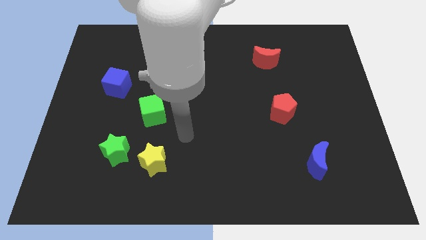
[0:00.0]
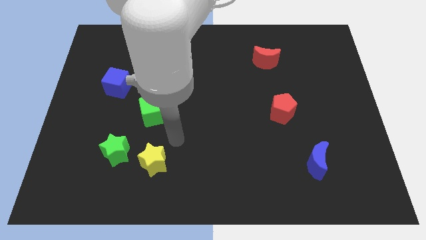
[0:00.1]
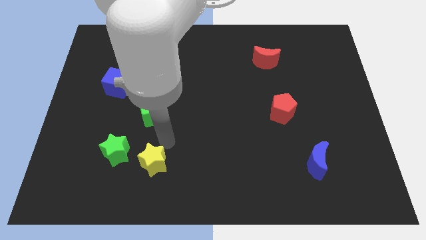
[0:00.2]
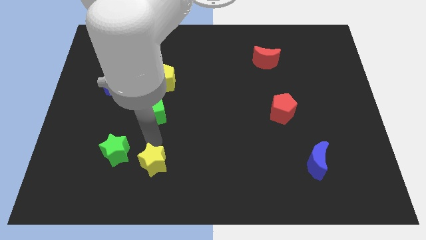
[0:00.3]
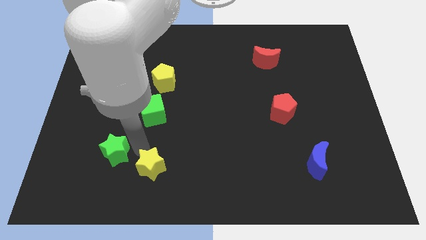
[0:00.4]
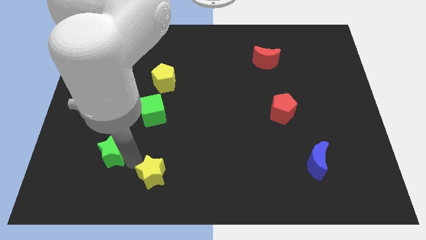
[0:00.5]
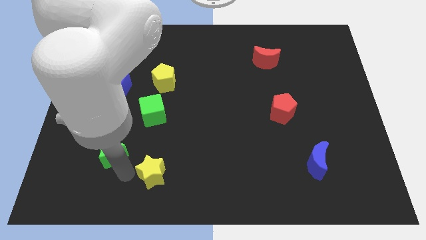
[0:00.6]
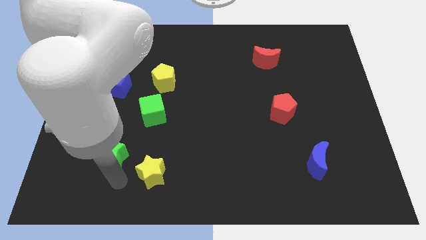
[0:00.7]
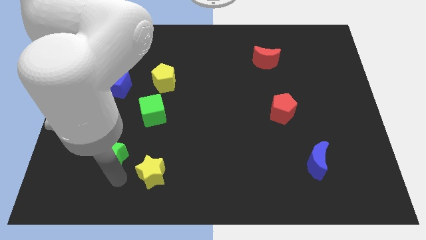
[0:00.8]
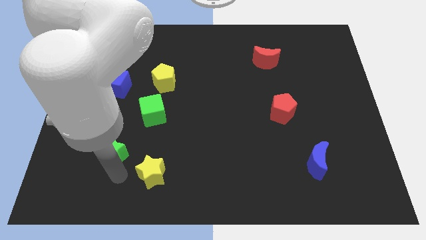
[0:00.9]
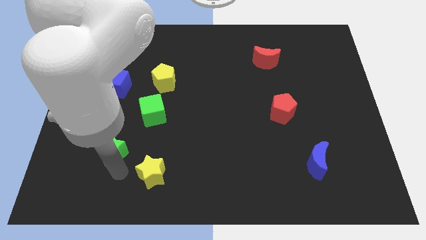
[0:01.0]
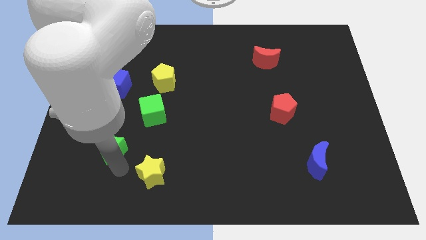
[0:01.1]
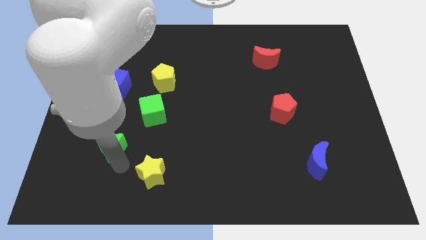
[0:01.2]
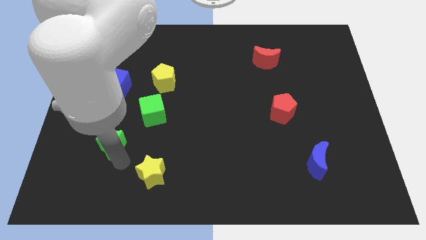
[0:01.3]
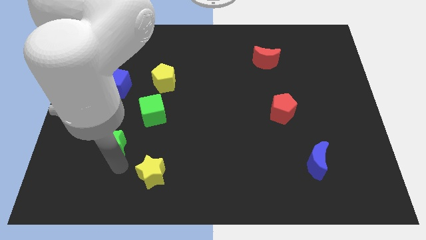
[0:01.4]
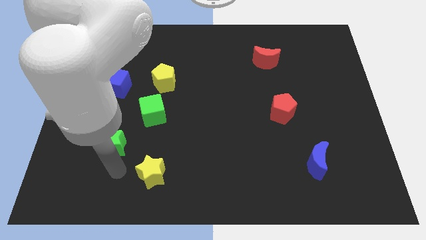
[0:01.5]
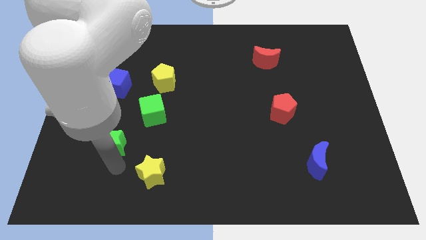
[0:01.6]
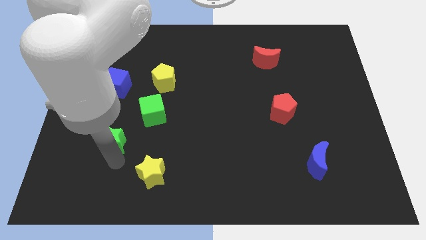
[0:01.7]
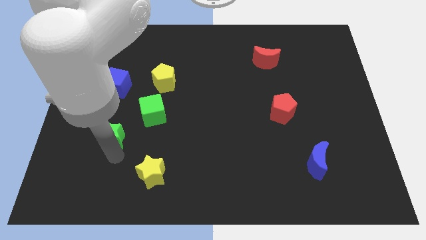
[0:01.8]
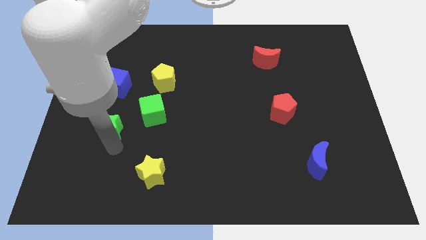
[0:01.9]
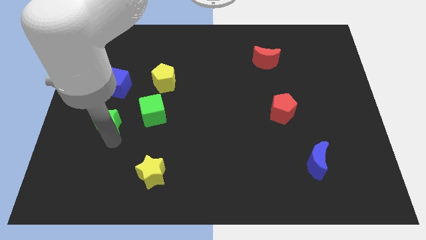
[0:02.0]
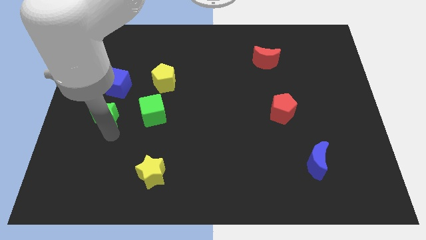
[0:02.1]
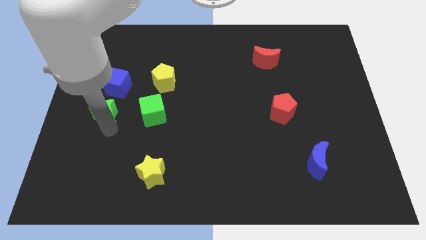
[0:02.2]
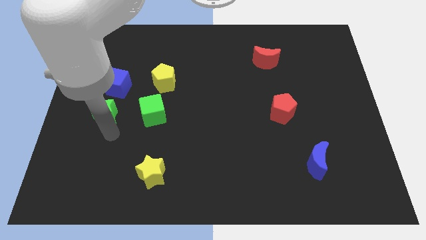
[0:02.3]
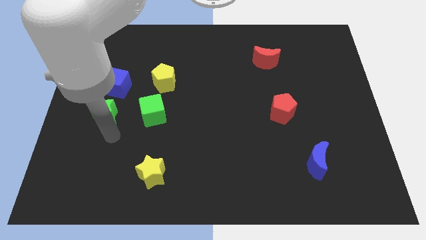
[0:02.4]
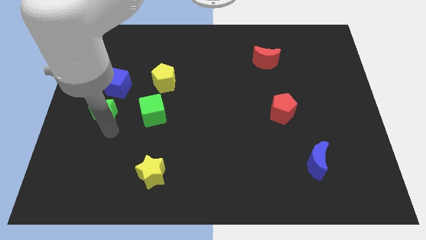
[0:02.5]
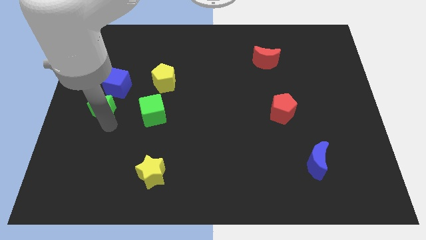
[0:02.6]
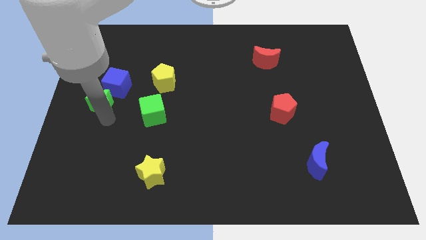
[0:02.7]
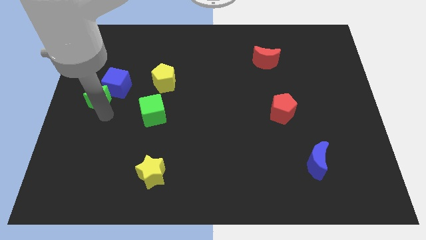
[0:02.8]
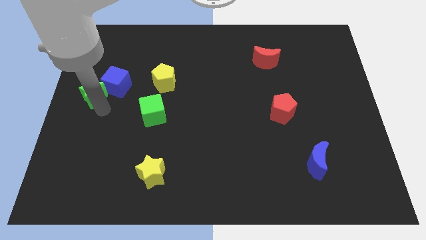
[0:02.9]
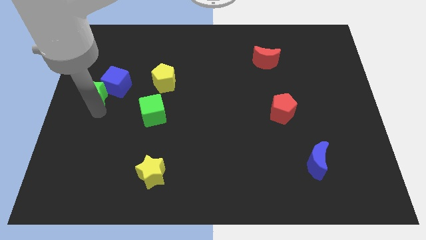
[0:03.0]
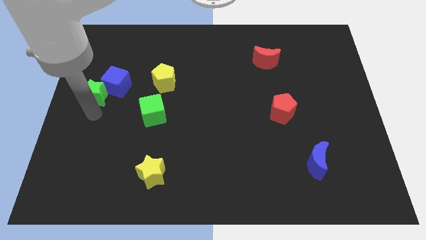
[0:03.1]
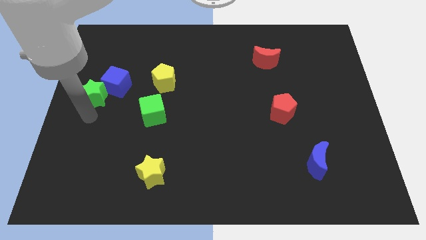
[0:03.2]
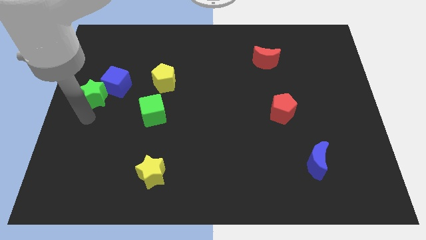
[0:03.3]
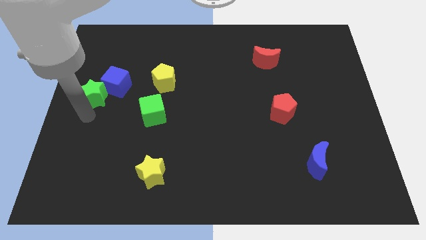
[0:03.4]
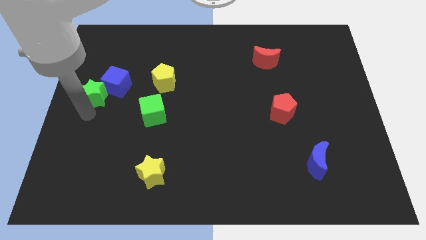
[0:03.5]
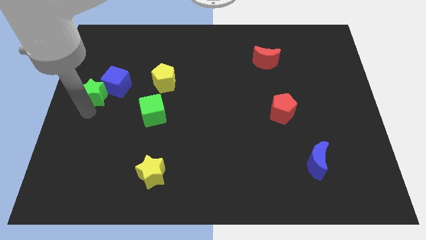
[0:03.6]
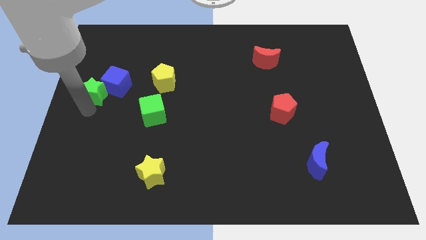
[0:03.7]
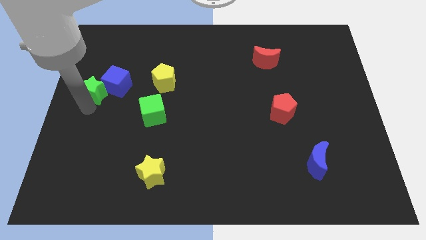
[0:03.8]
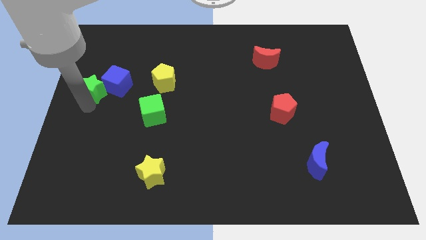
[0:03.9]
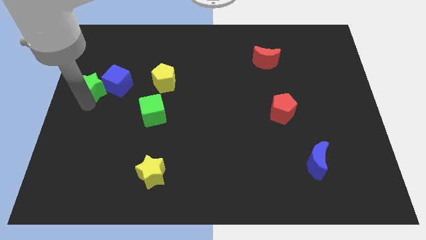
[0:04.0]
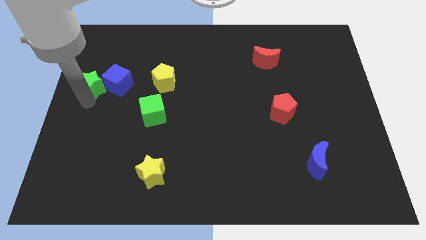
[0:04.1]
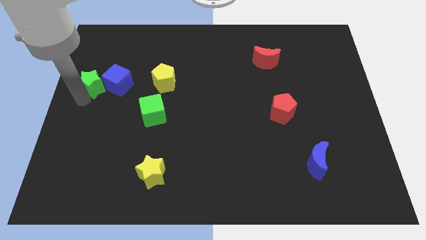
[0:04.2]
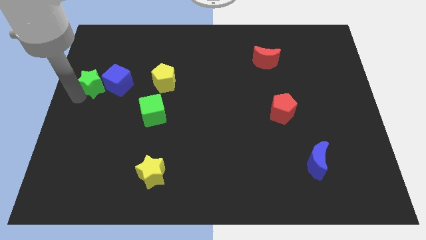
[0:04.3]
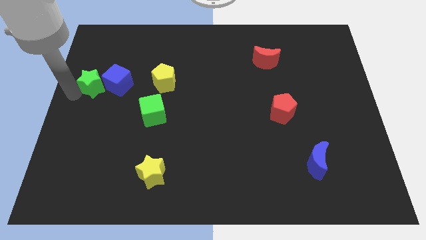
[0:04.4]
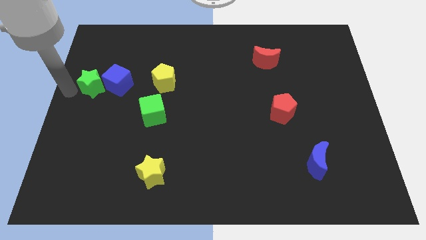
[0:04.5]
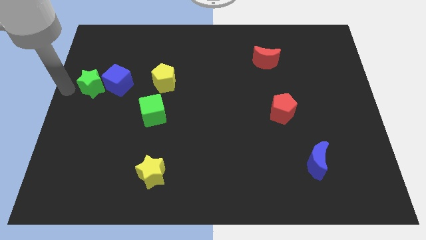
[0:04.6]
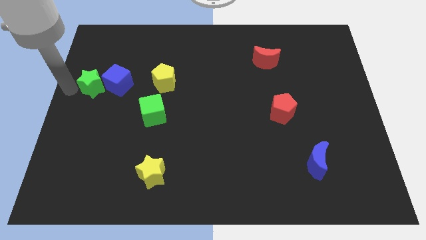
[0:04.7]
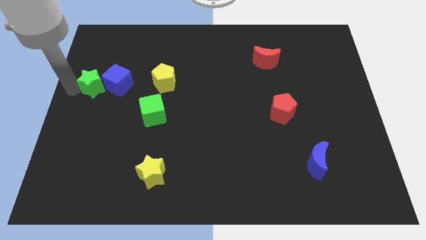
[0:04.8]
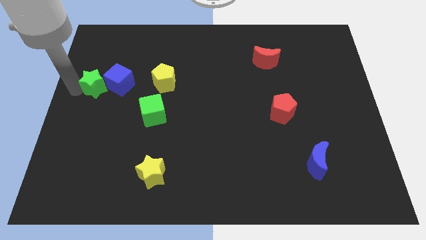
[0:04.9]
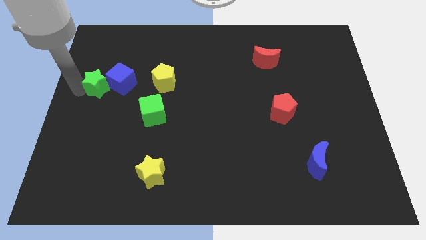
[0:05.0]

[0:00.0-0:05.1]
slide the green star just left of the yellow pentagon

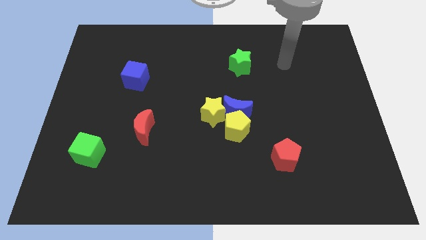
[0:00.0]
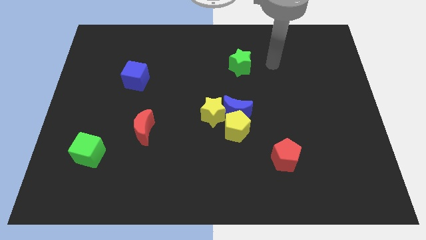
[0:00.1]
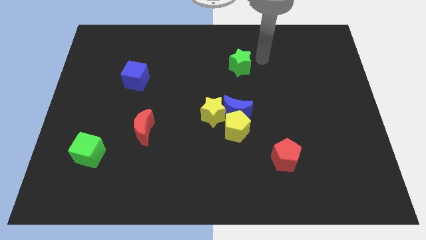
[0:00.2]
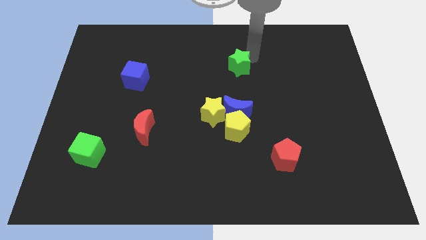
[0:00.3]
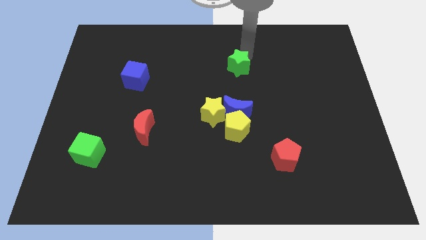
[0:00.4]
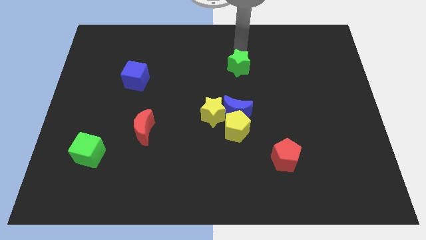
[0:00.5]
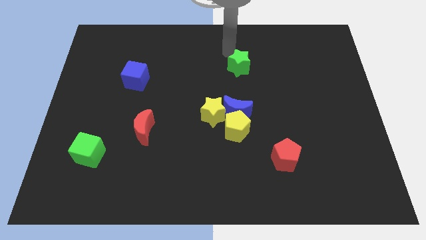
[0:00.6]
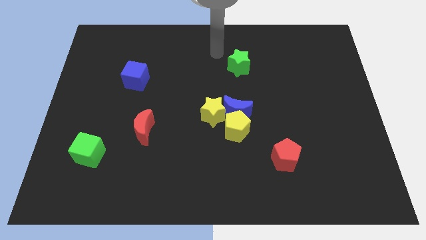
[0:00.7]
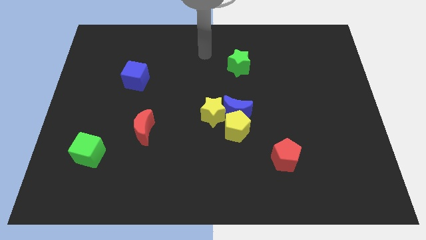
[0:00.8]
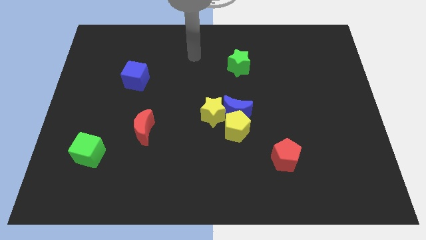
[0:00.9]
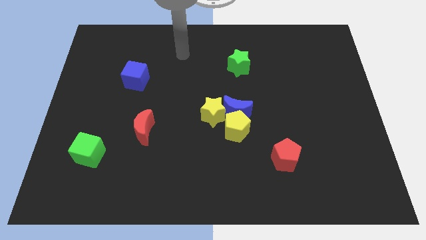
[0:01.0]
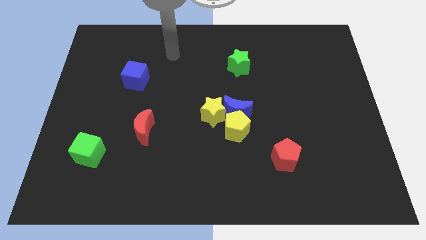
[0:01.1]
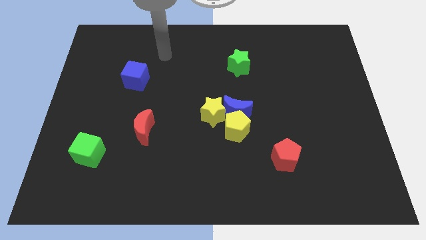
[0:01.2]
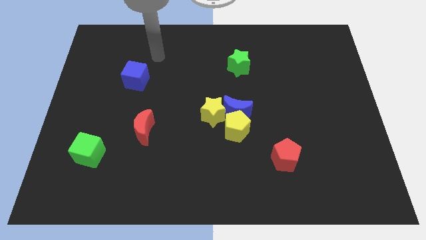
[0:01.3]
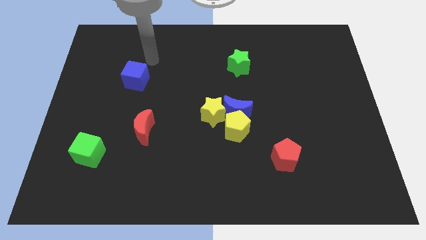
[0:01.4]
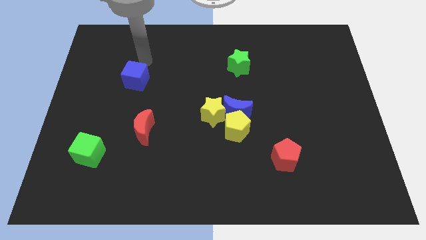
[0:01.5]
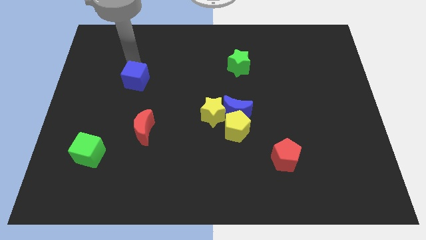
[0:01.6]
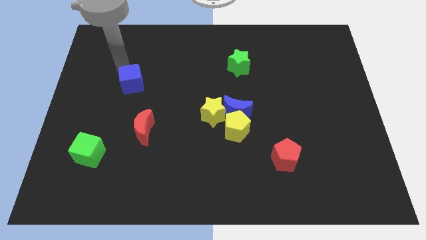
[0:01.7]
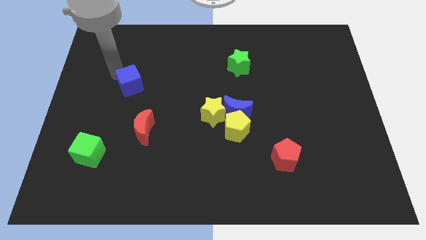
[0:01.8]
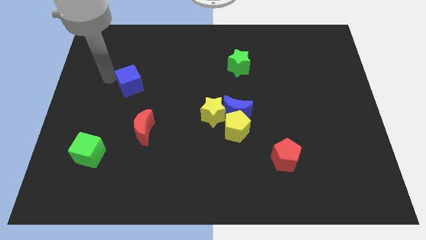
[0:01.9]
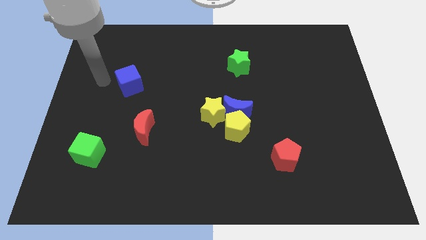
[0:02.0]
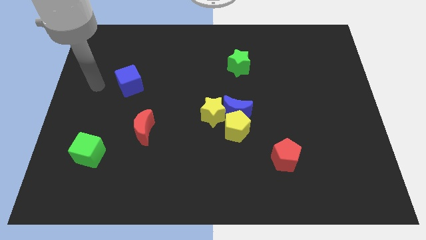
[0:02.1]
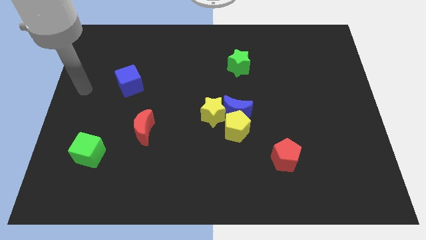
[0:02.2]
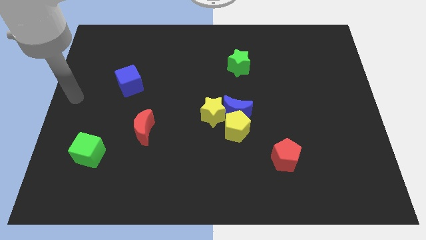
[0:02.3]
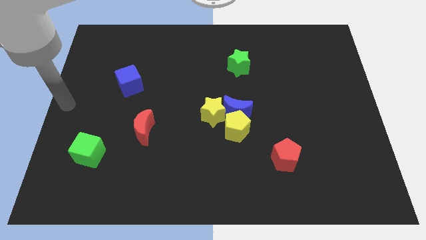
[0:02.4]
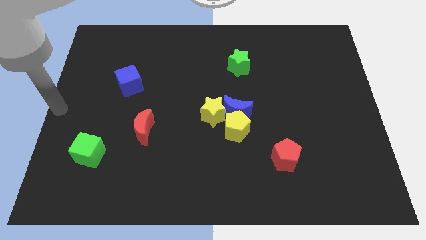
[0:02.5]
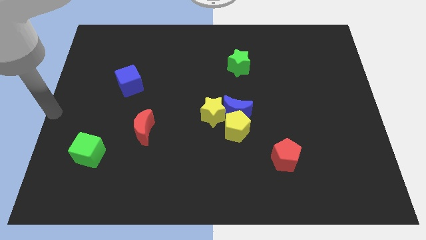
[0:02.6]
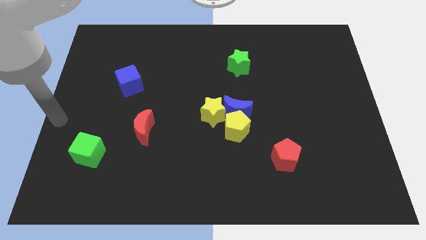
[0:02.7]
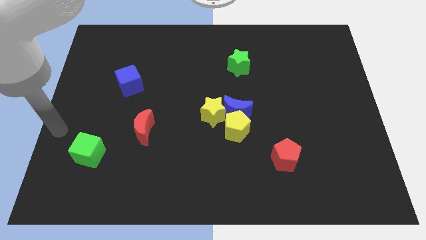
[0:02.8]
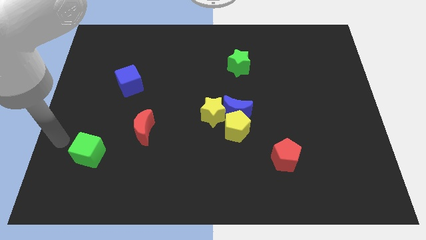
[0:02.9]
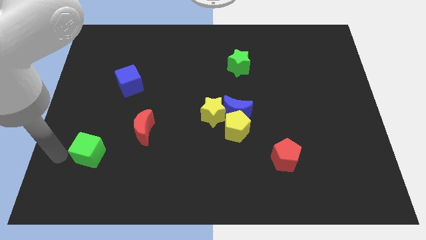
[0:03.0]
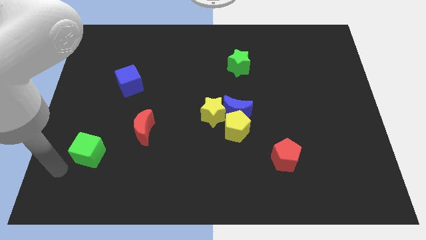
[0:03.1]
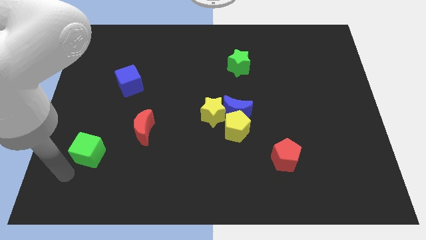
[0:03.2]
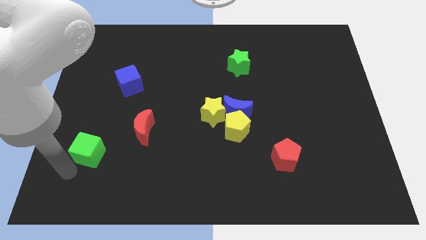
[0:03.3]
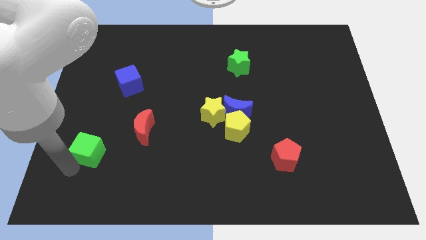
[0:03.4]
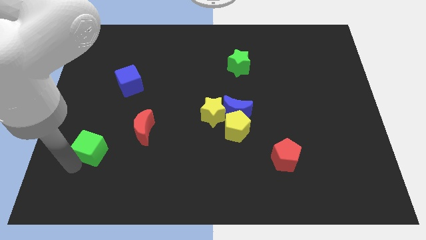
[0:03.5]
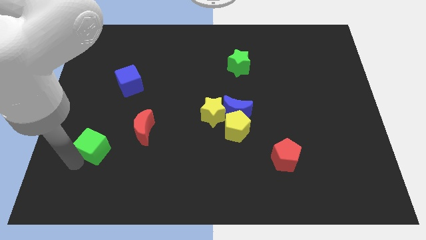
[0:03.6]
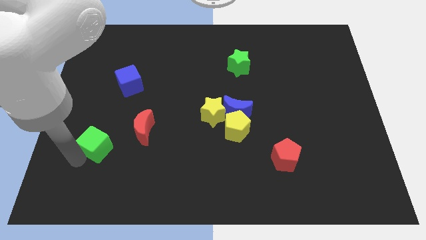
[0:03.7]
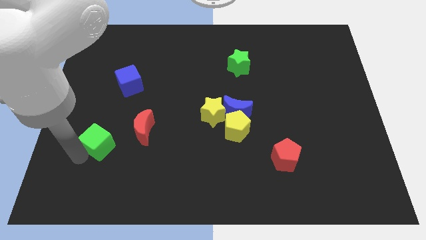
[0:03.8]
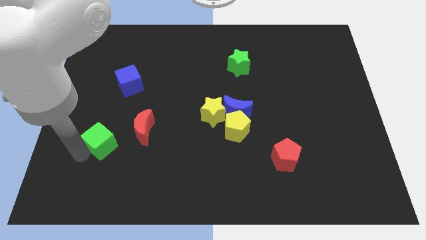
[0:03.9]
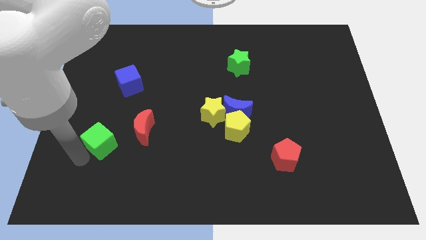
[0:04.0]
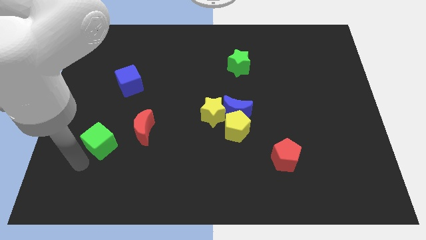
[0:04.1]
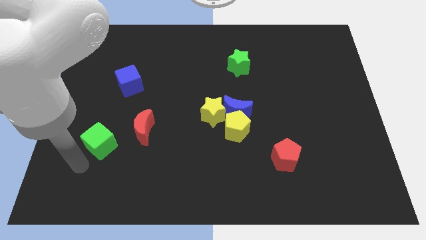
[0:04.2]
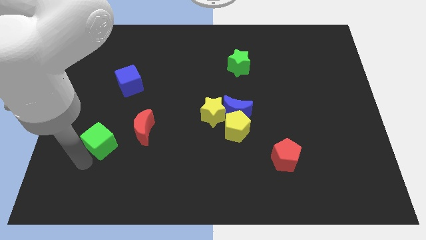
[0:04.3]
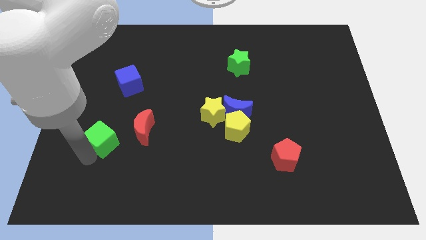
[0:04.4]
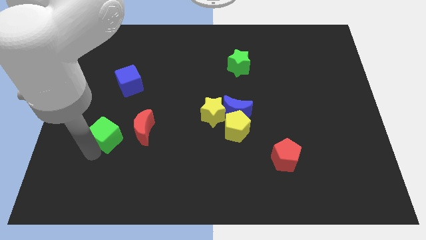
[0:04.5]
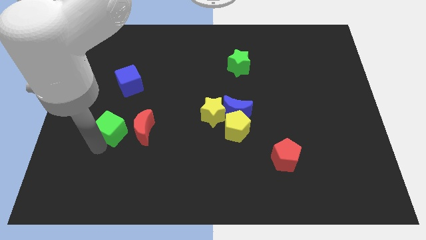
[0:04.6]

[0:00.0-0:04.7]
put the green cube below the blue cube
